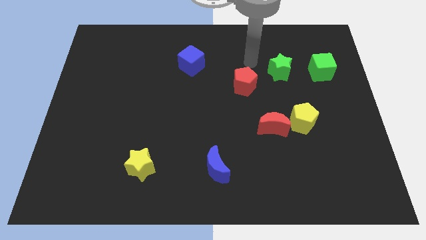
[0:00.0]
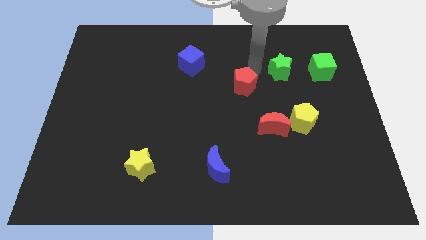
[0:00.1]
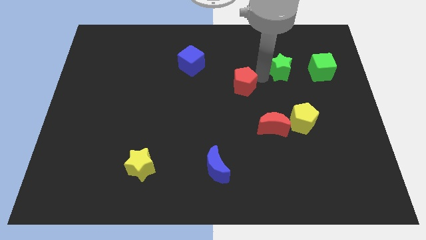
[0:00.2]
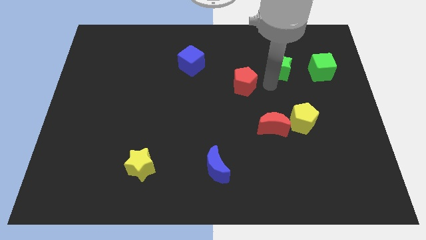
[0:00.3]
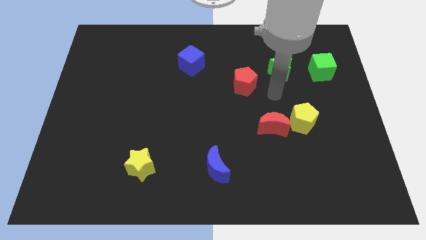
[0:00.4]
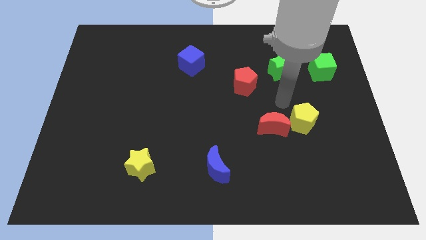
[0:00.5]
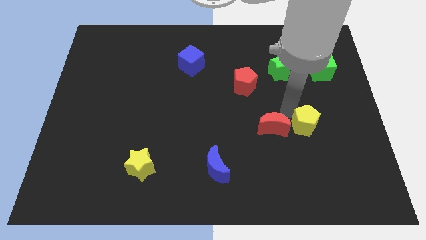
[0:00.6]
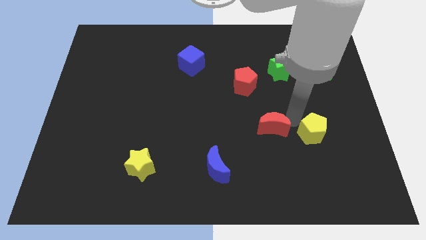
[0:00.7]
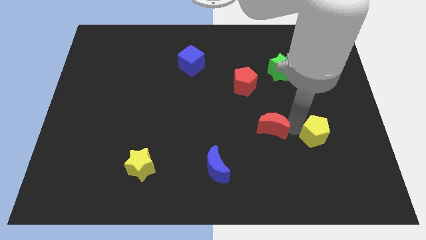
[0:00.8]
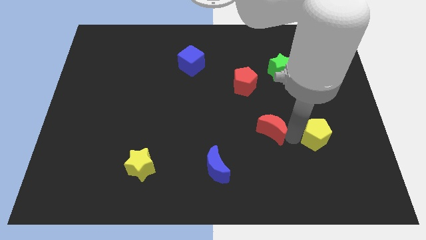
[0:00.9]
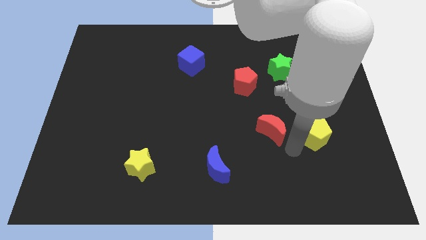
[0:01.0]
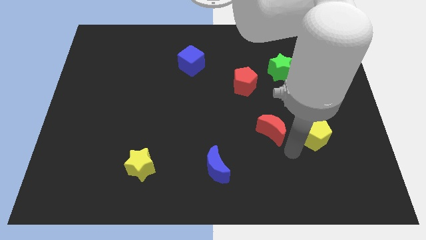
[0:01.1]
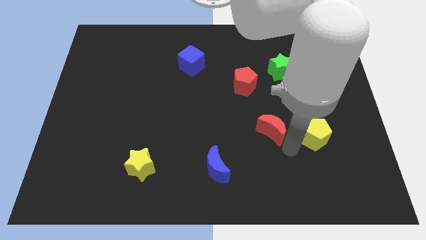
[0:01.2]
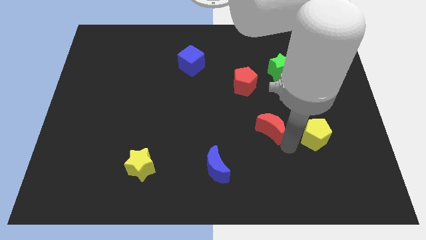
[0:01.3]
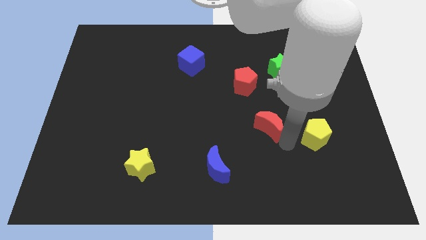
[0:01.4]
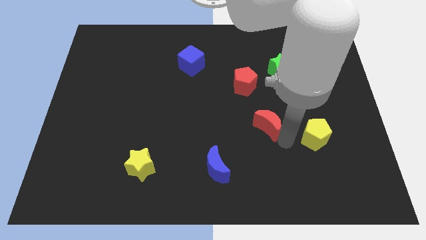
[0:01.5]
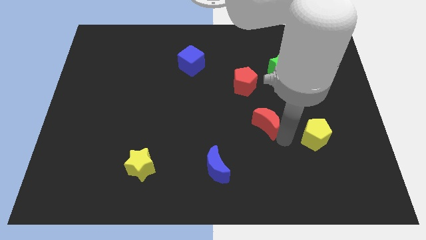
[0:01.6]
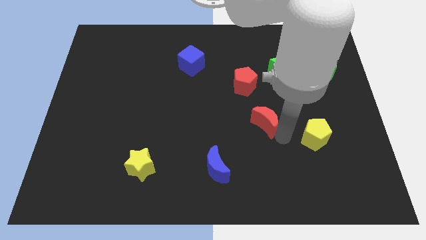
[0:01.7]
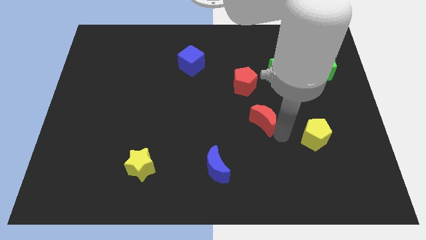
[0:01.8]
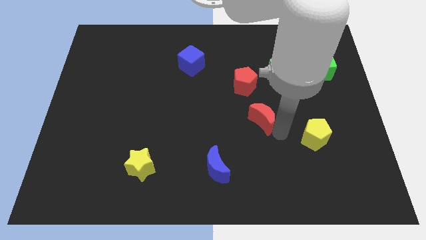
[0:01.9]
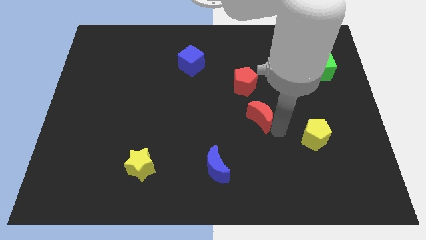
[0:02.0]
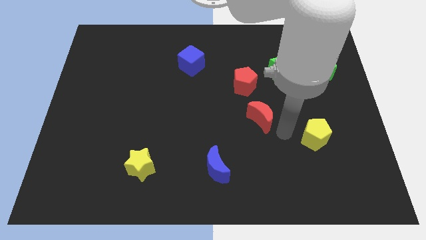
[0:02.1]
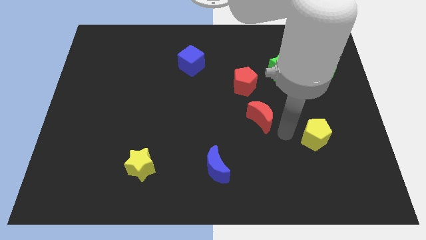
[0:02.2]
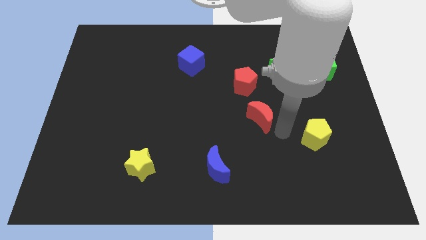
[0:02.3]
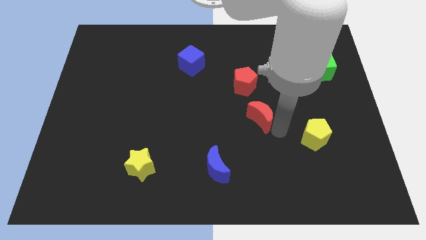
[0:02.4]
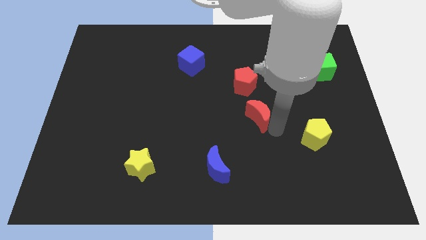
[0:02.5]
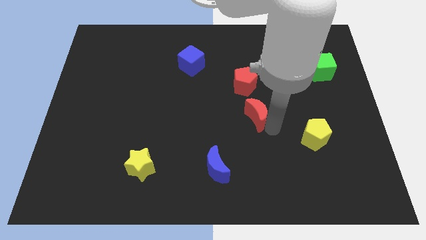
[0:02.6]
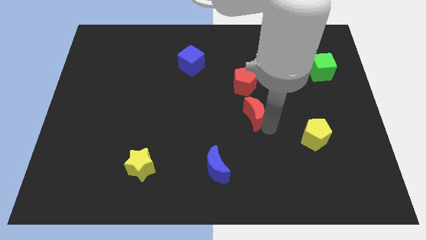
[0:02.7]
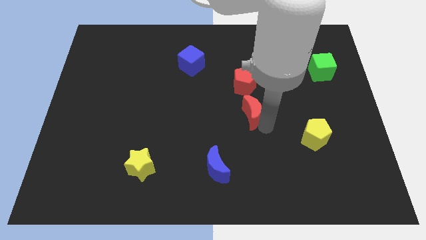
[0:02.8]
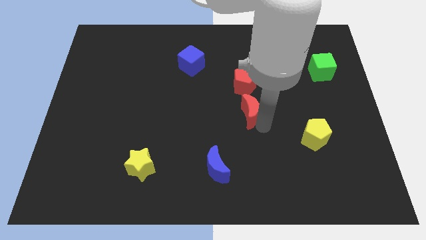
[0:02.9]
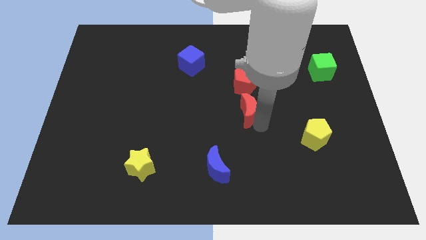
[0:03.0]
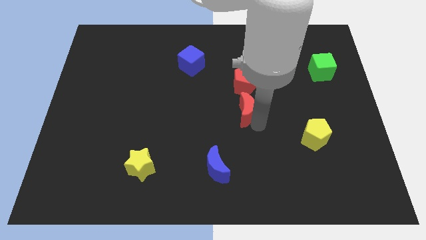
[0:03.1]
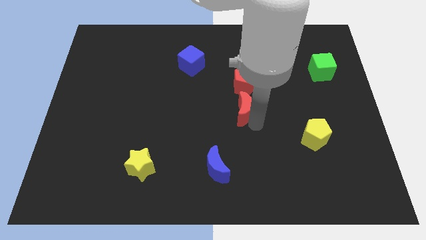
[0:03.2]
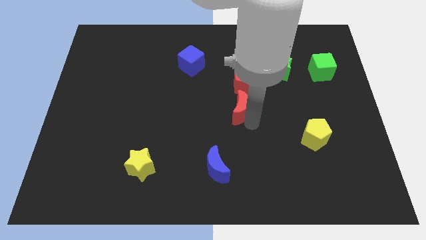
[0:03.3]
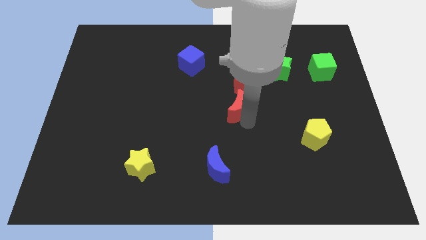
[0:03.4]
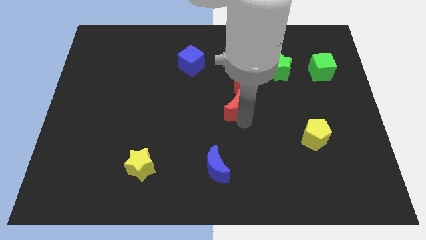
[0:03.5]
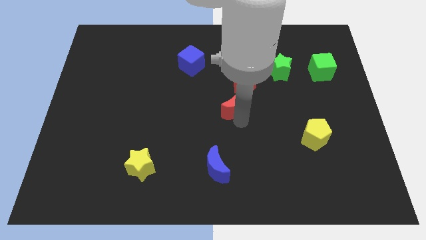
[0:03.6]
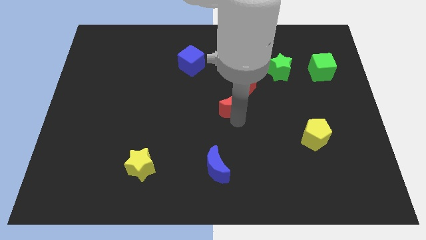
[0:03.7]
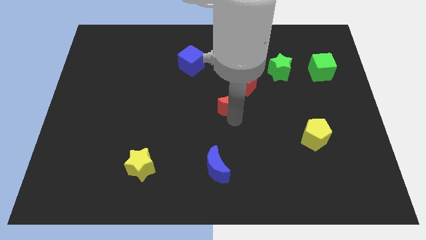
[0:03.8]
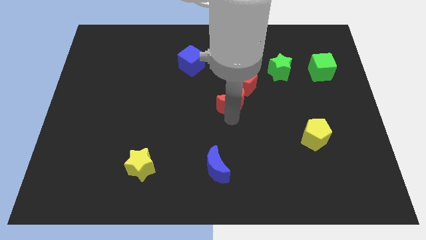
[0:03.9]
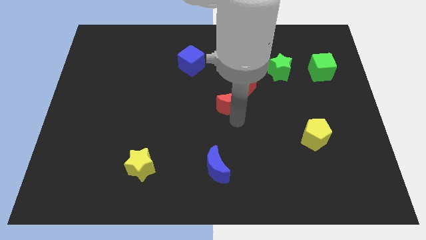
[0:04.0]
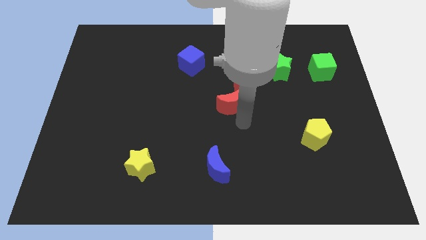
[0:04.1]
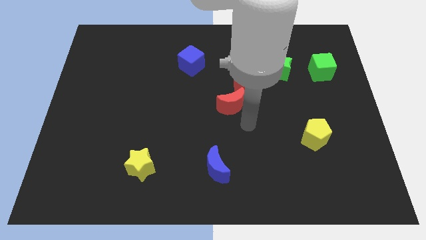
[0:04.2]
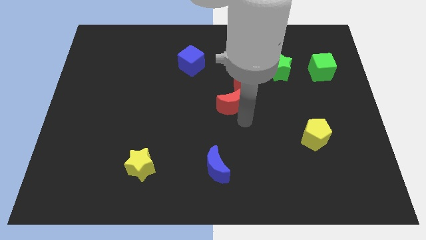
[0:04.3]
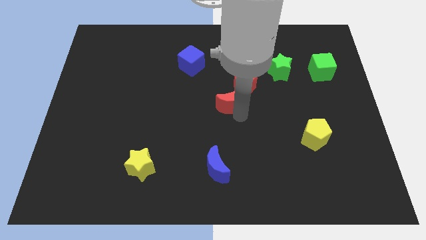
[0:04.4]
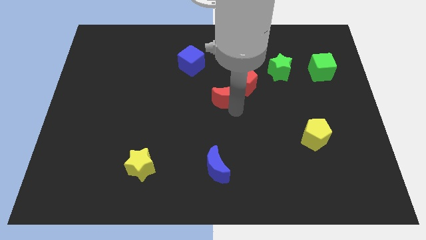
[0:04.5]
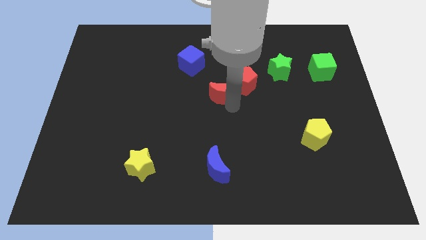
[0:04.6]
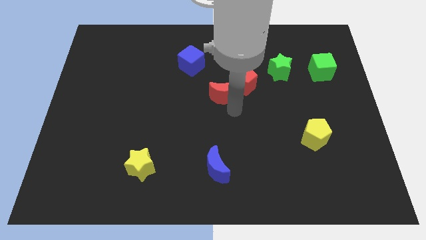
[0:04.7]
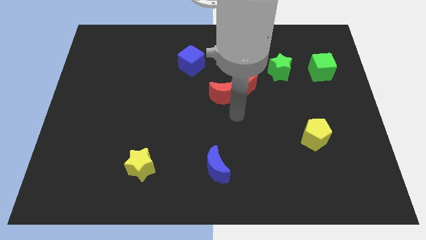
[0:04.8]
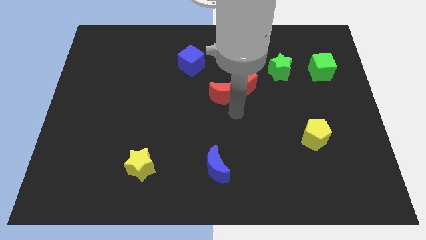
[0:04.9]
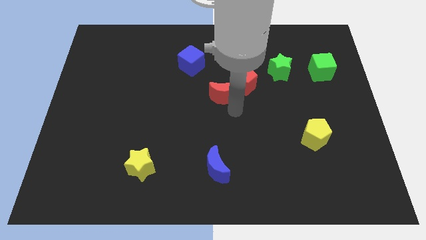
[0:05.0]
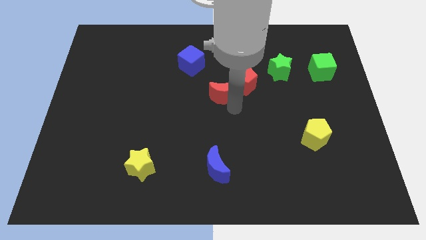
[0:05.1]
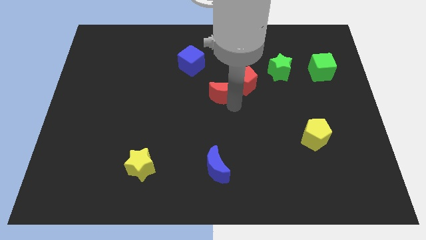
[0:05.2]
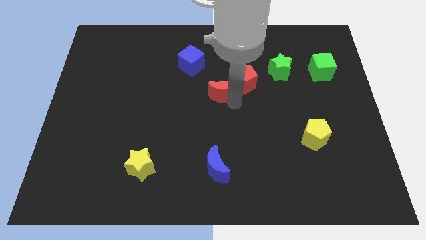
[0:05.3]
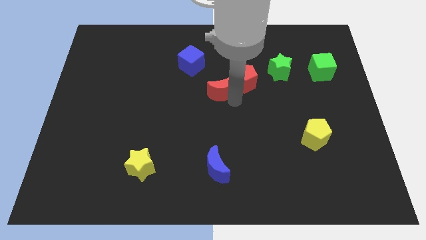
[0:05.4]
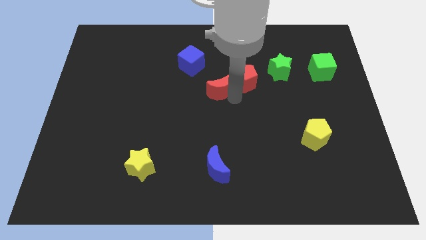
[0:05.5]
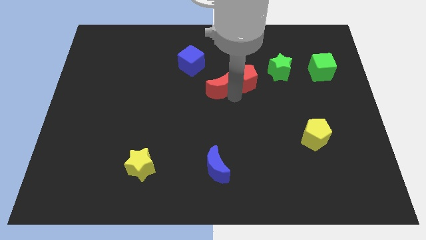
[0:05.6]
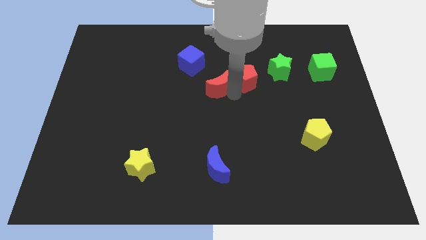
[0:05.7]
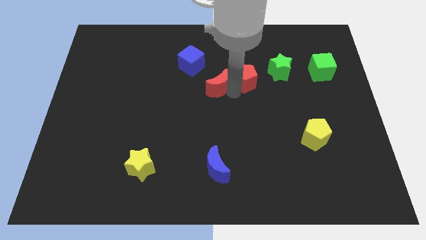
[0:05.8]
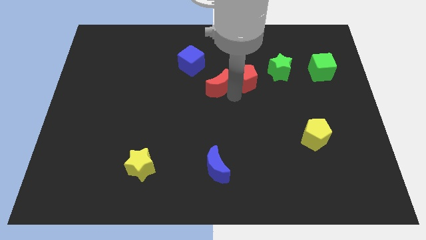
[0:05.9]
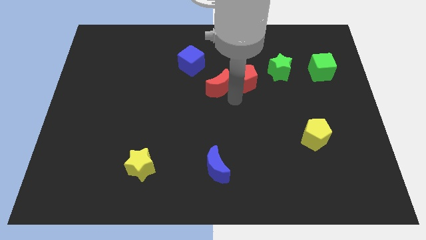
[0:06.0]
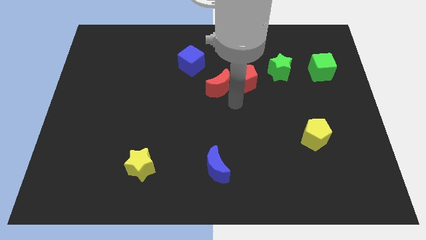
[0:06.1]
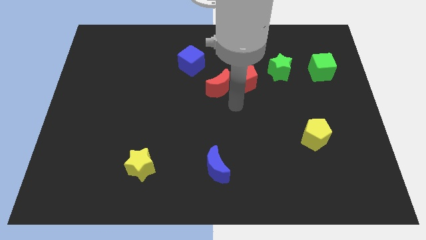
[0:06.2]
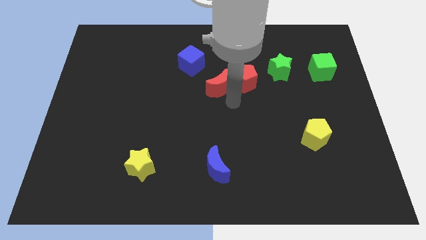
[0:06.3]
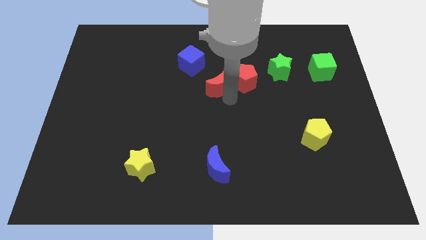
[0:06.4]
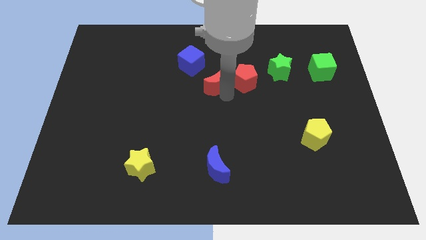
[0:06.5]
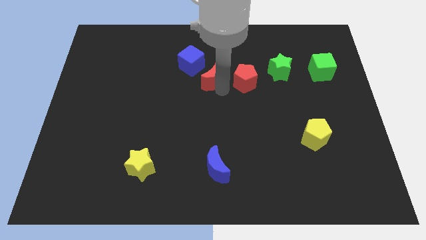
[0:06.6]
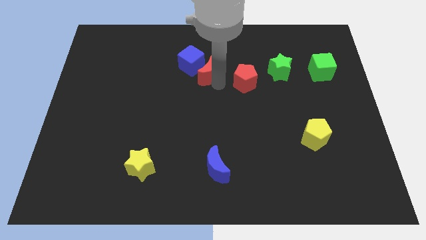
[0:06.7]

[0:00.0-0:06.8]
move the red moon towards the blue cube
